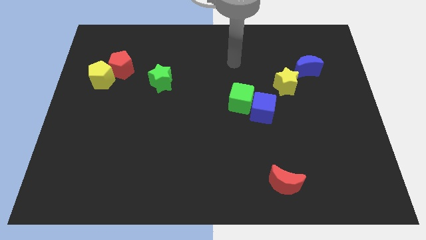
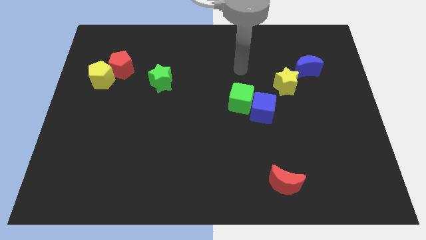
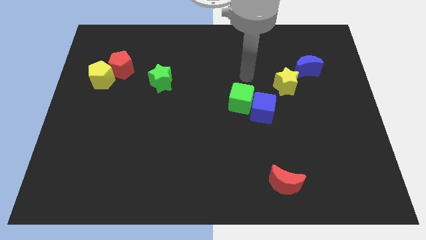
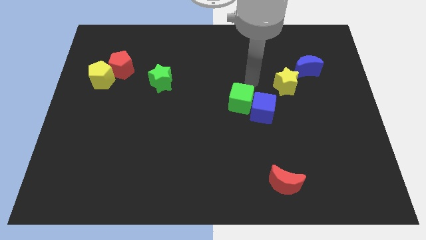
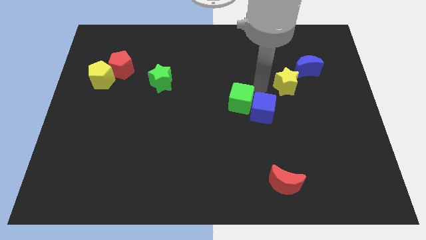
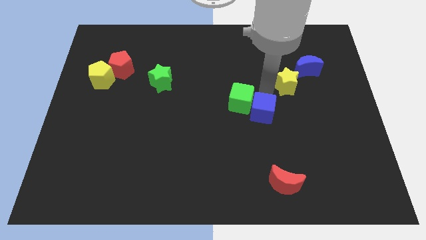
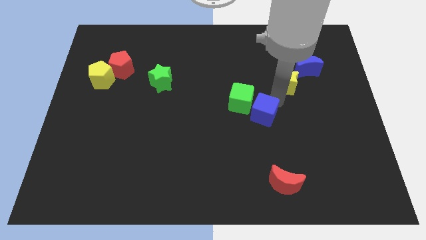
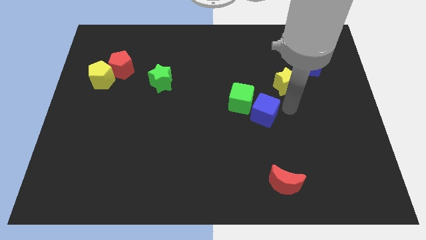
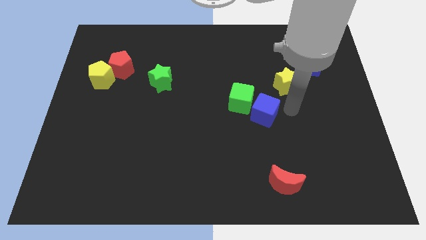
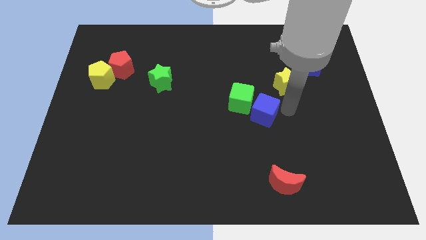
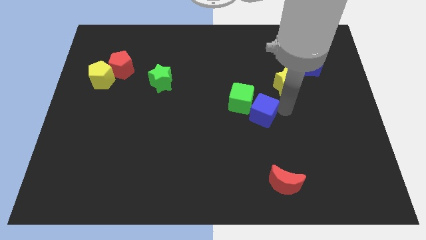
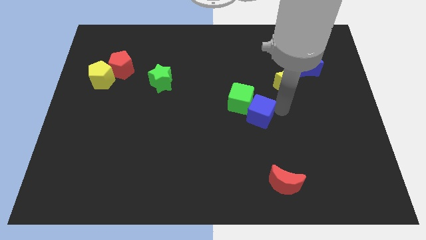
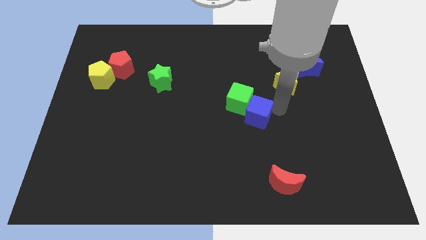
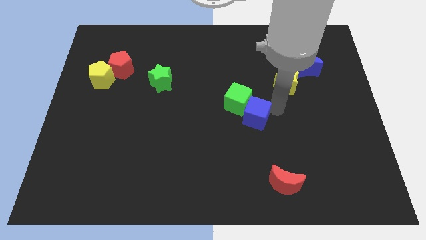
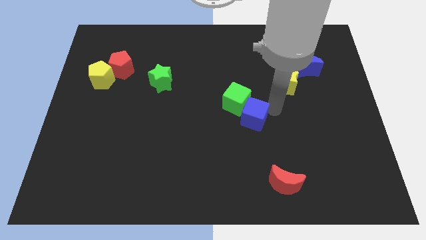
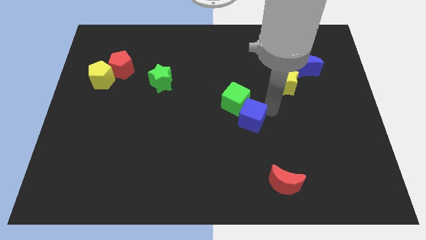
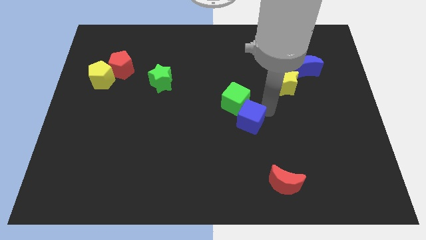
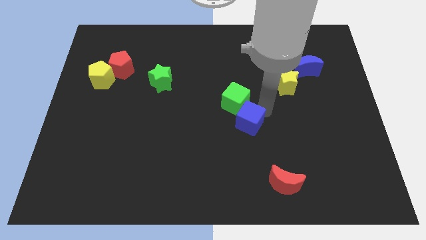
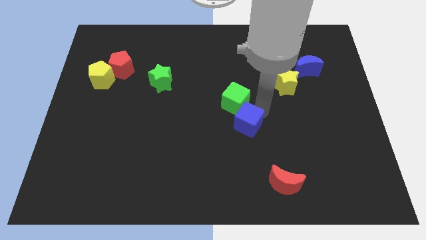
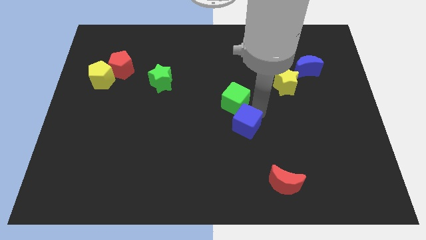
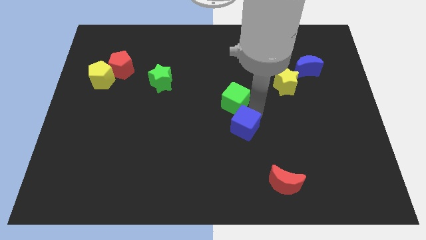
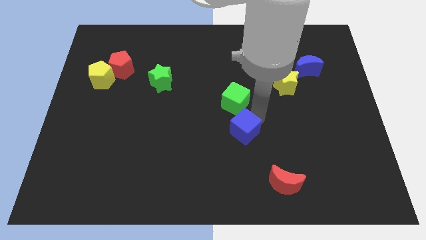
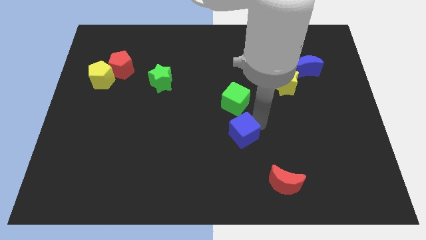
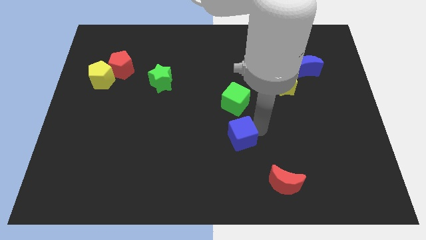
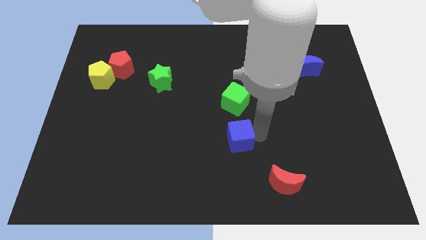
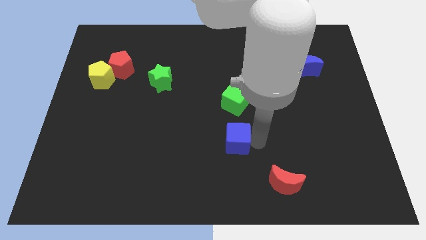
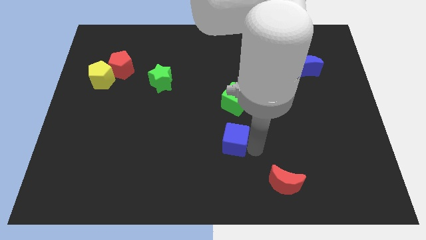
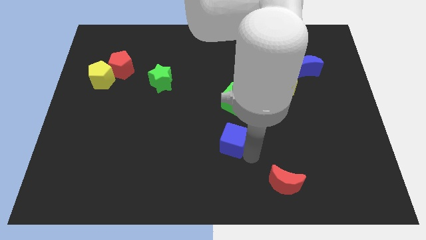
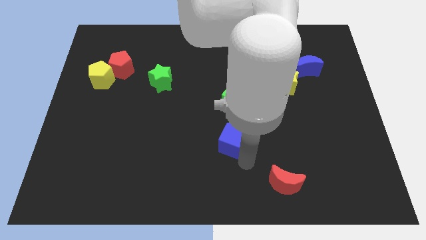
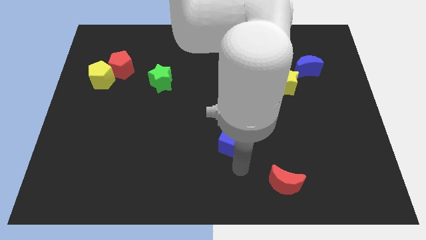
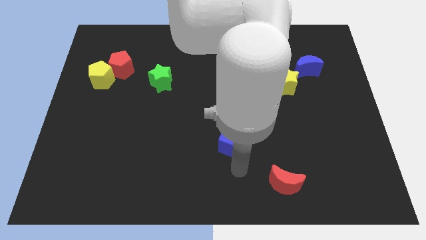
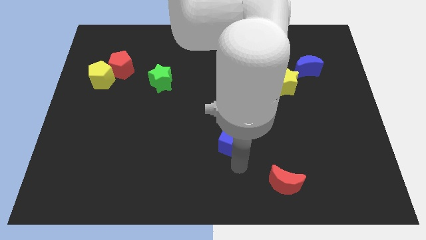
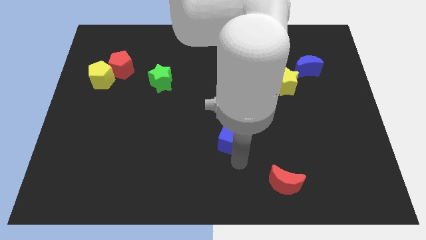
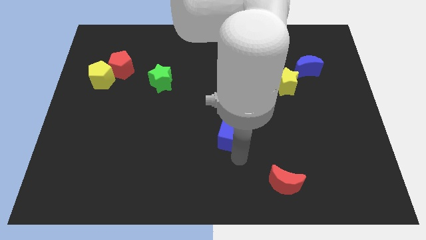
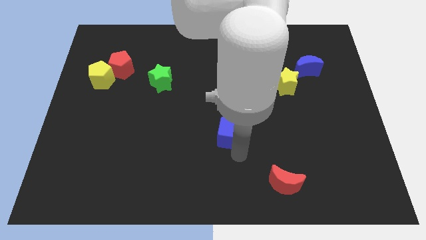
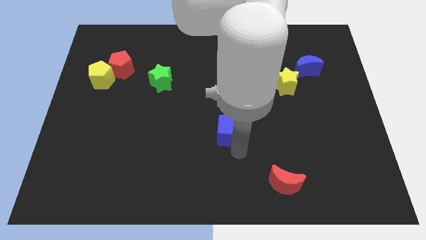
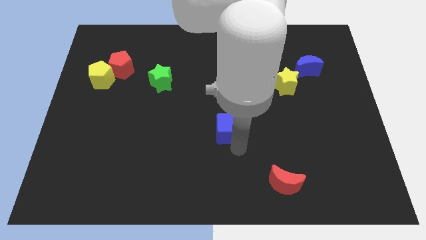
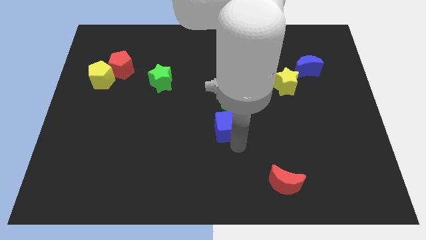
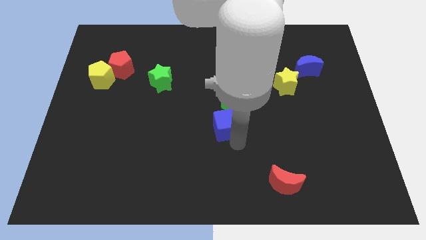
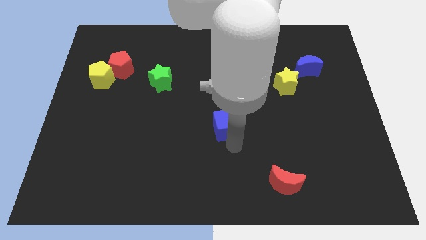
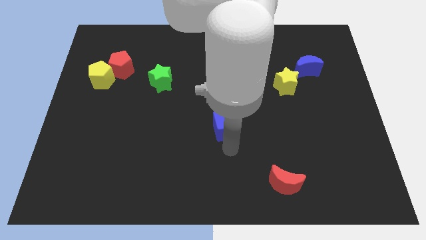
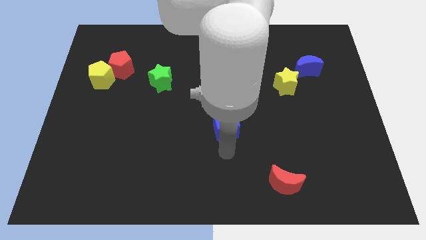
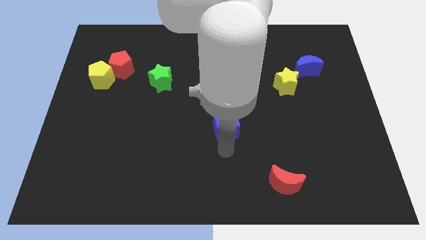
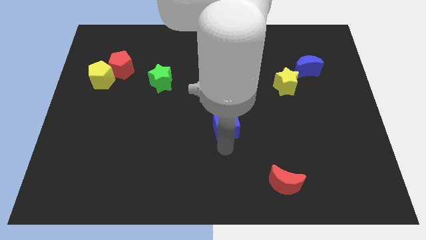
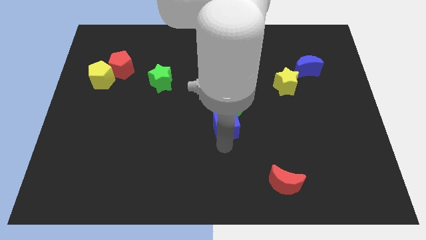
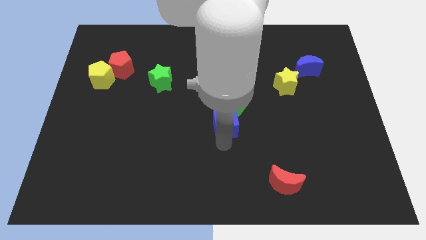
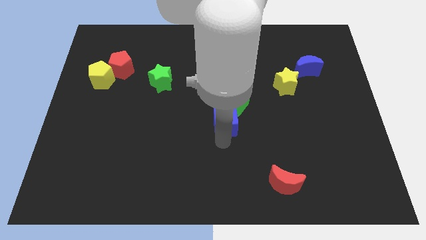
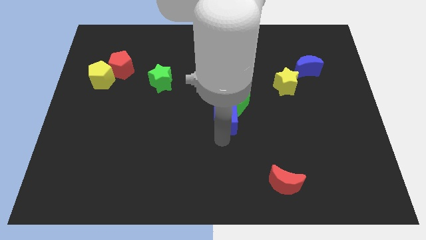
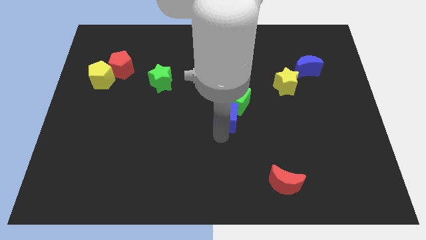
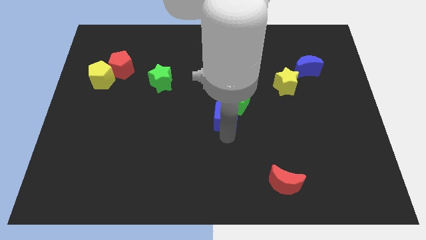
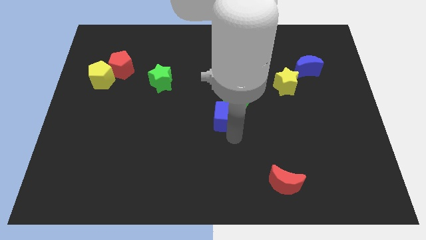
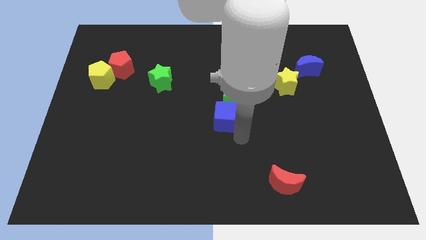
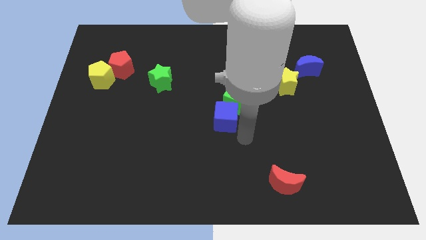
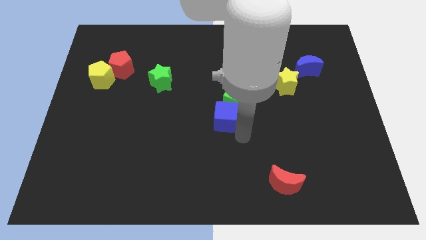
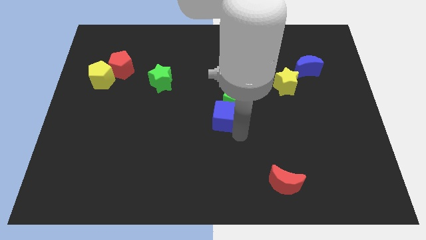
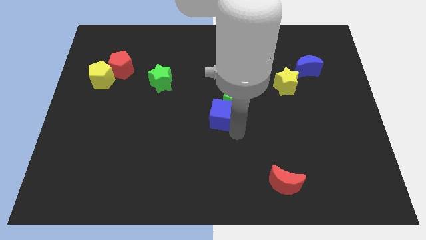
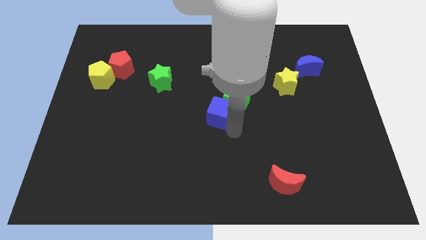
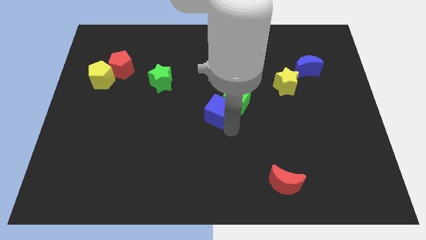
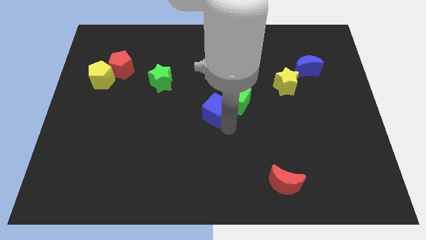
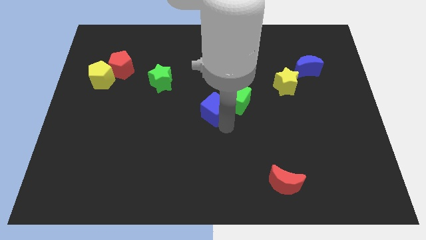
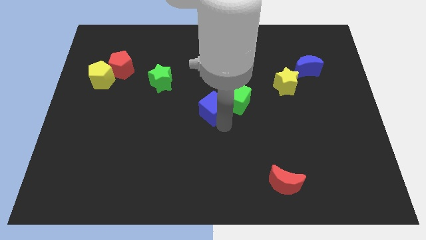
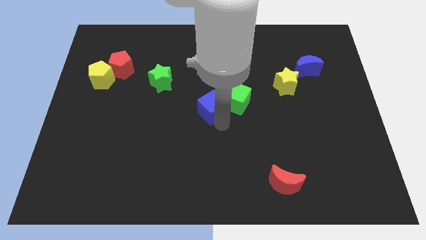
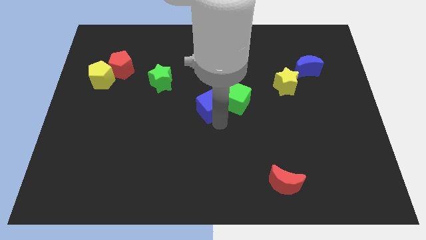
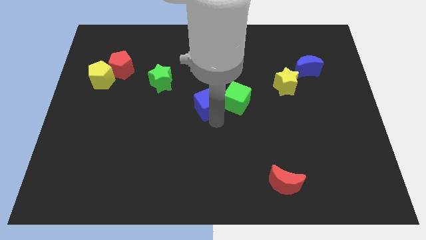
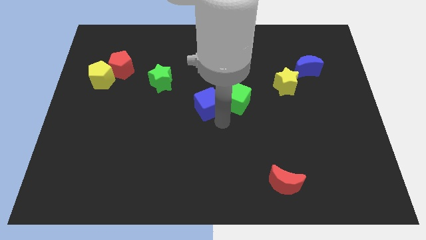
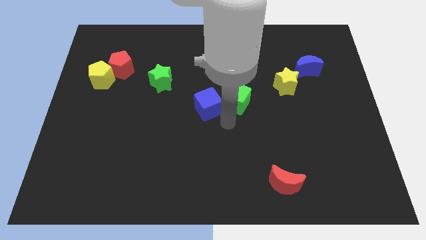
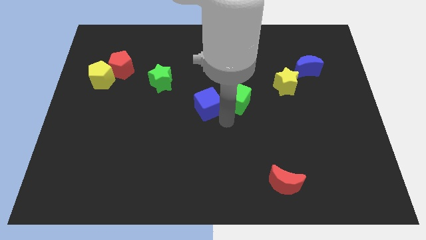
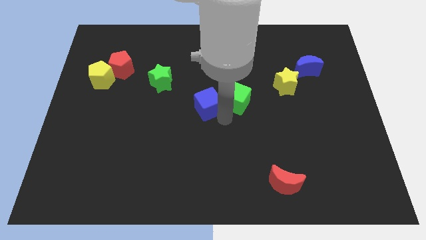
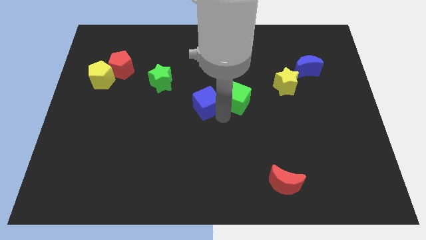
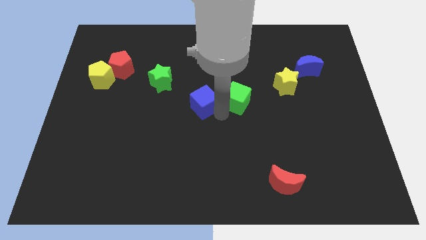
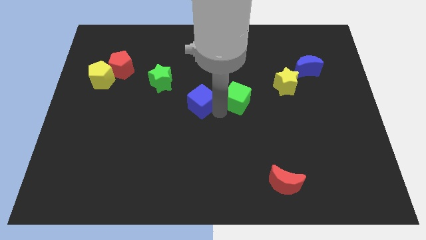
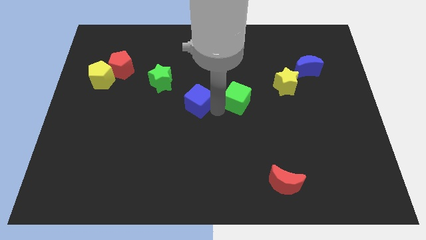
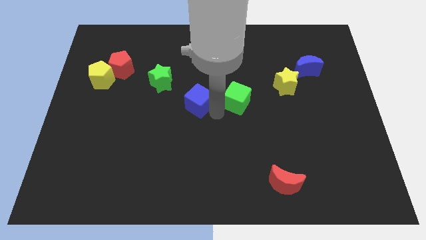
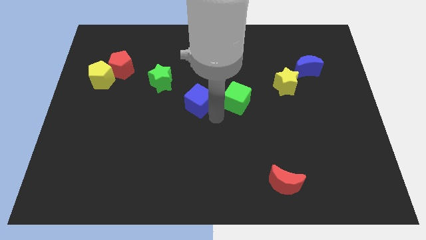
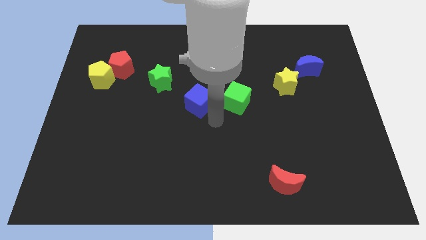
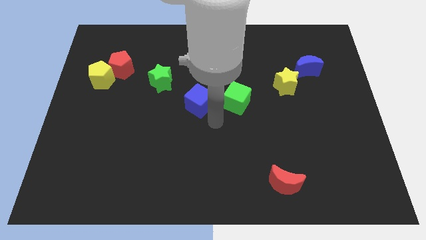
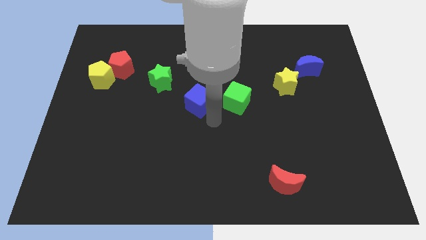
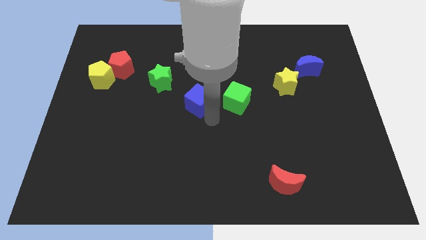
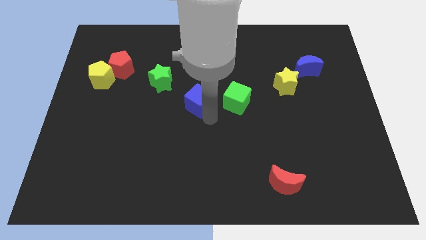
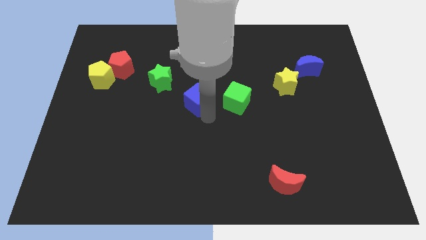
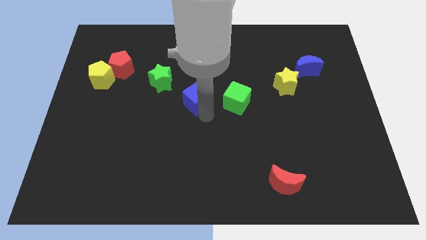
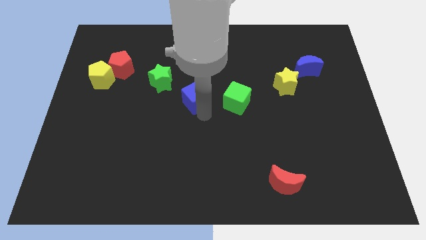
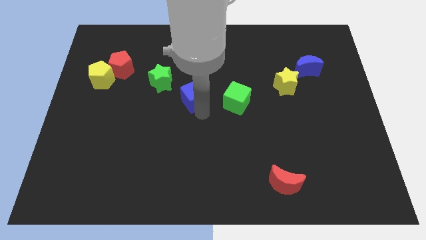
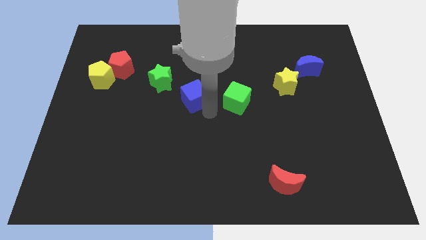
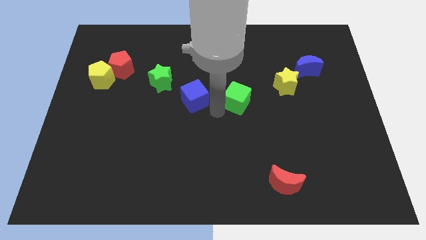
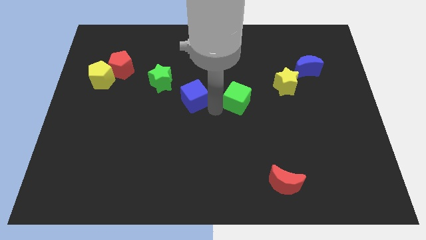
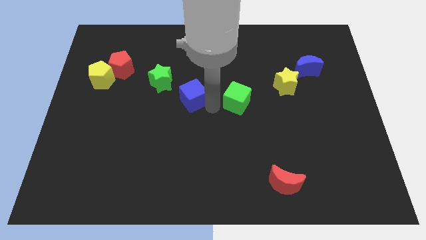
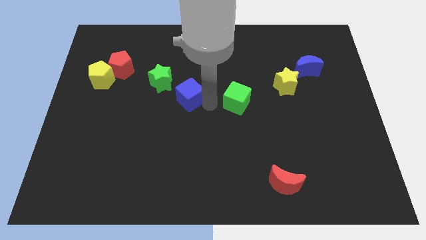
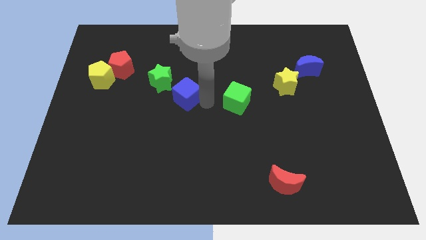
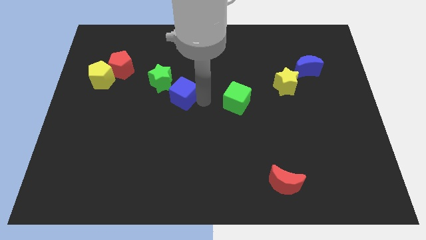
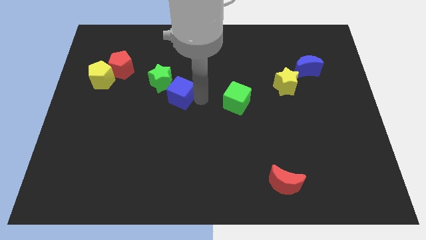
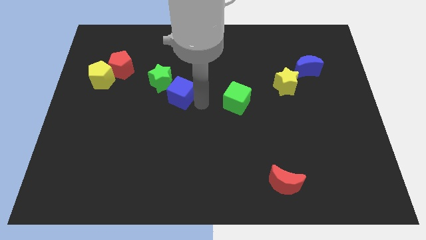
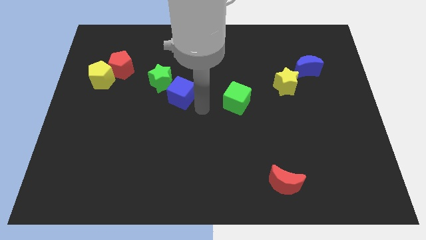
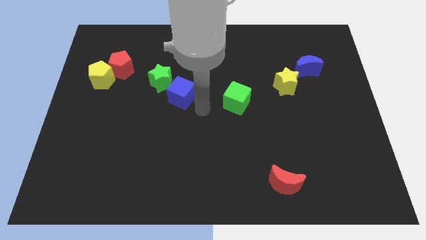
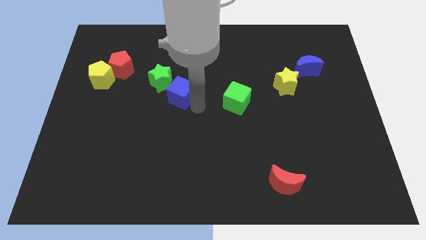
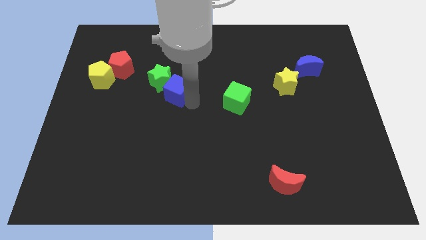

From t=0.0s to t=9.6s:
move the blue cube towards the green star
